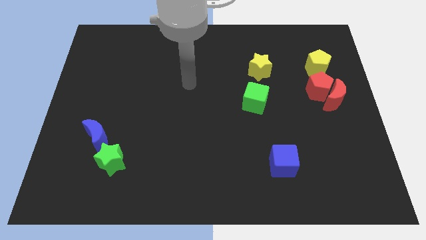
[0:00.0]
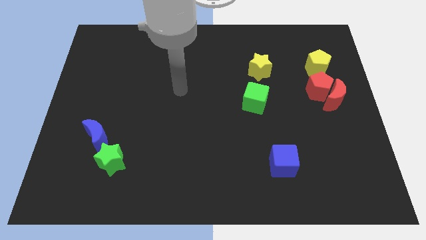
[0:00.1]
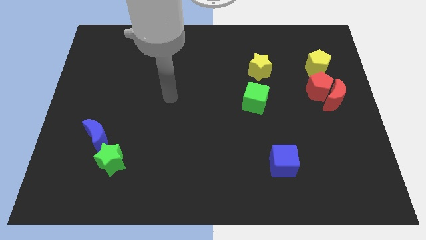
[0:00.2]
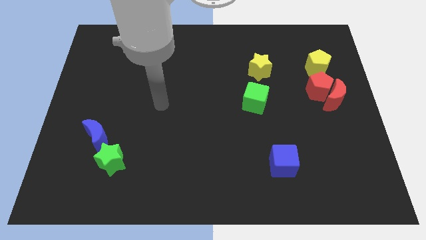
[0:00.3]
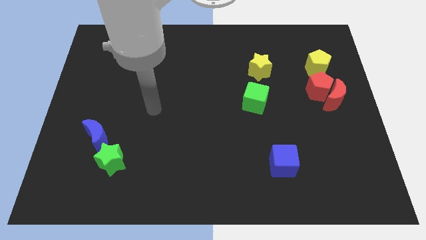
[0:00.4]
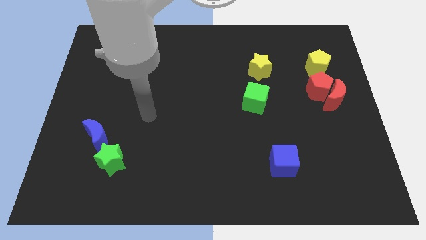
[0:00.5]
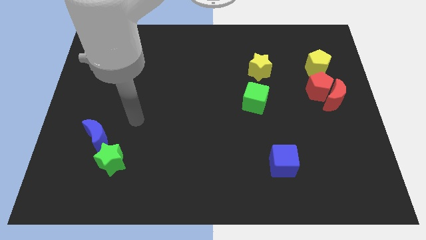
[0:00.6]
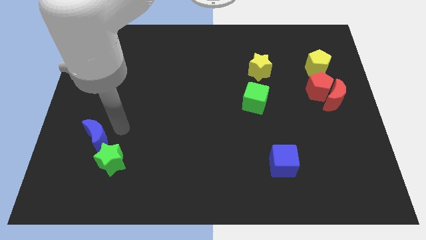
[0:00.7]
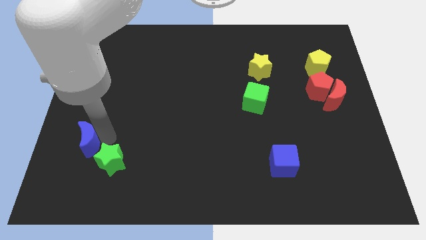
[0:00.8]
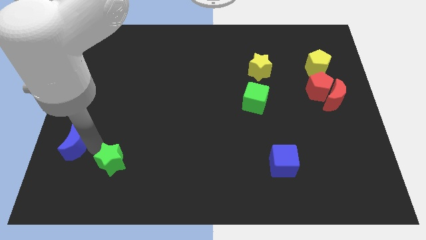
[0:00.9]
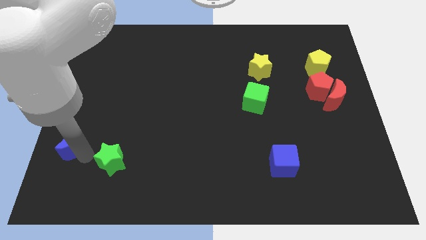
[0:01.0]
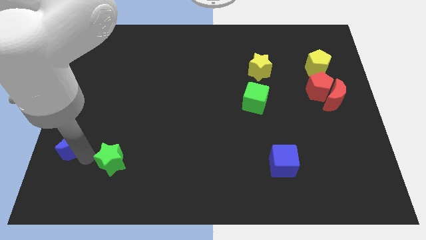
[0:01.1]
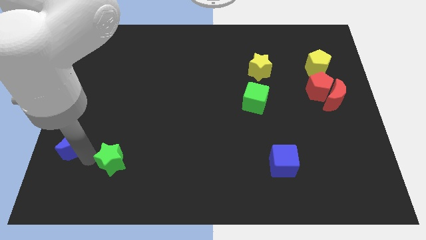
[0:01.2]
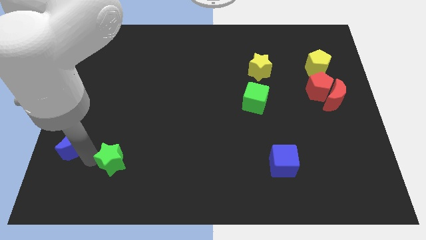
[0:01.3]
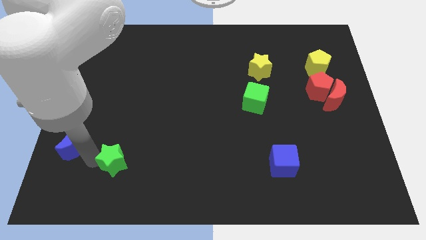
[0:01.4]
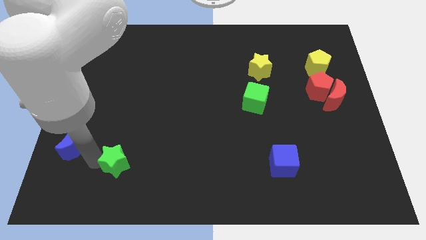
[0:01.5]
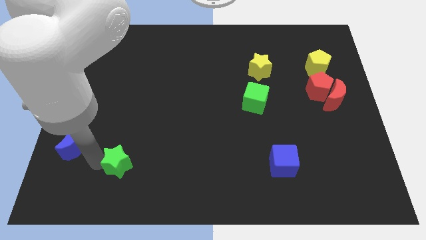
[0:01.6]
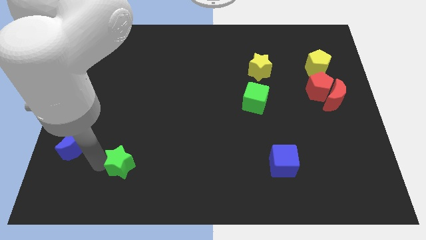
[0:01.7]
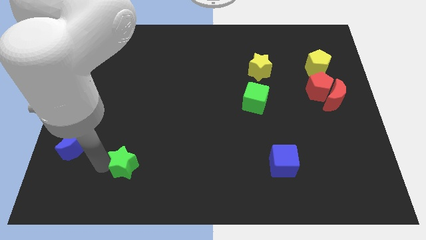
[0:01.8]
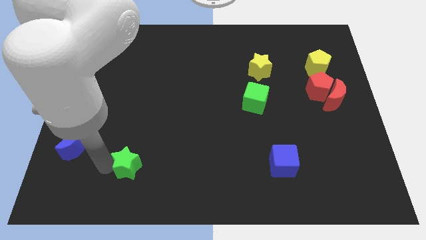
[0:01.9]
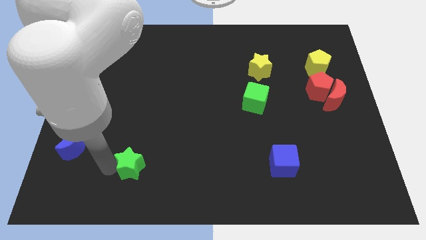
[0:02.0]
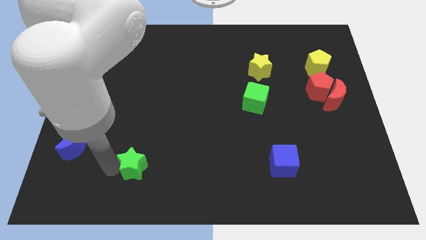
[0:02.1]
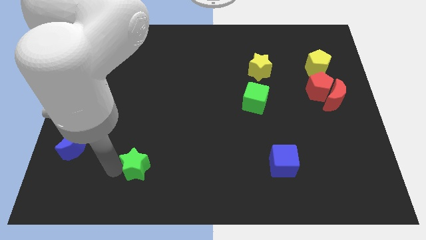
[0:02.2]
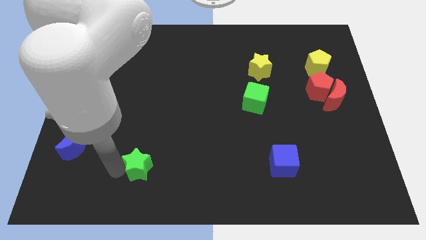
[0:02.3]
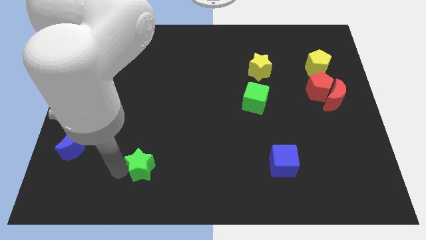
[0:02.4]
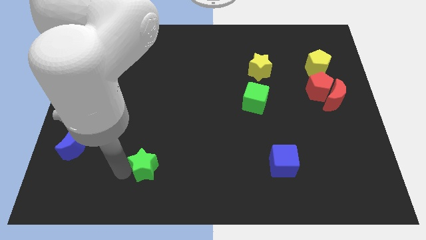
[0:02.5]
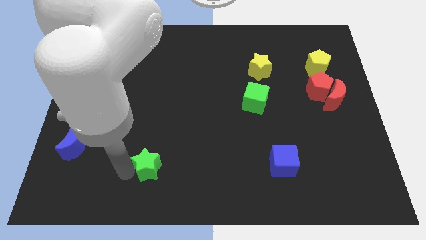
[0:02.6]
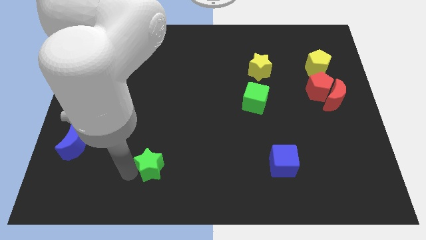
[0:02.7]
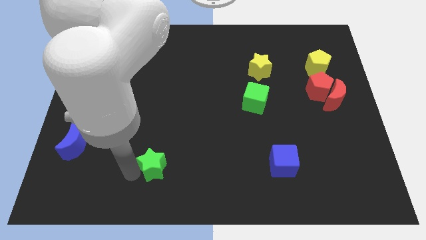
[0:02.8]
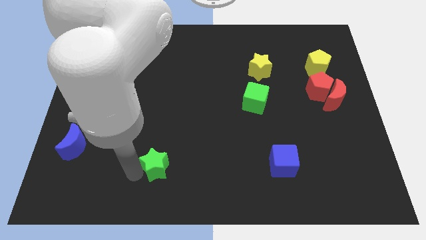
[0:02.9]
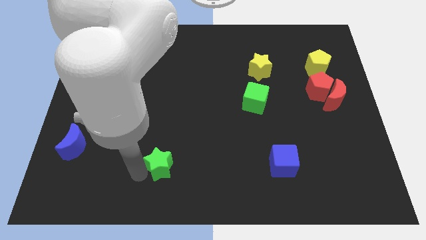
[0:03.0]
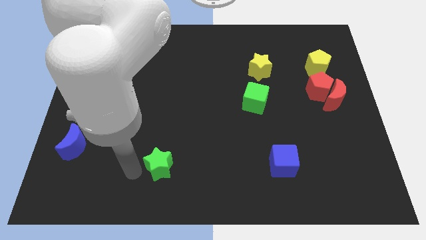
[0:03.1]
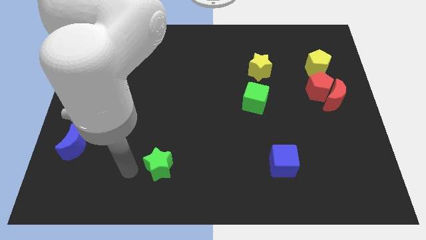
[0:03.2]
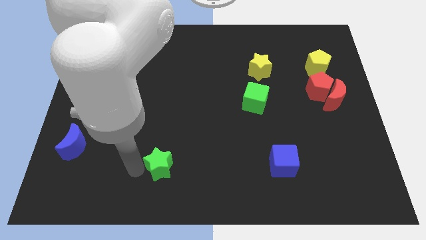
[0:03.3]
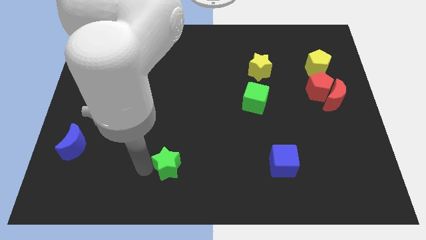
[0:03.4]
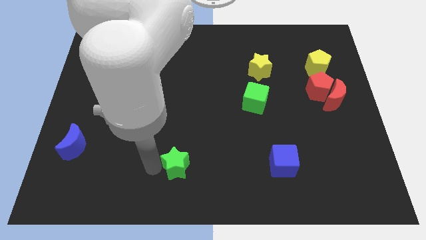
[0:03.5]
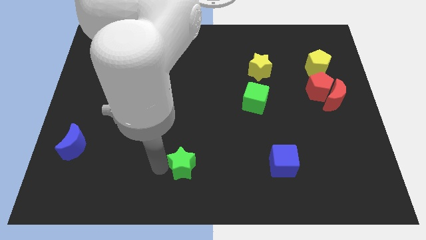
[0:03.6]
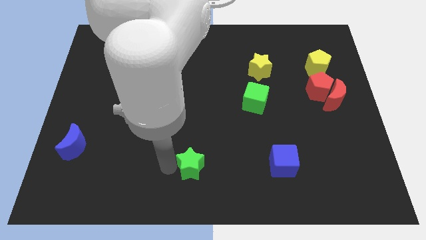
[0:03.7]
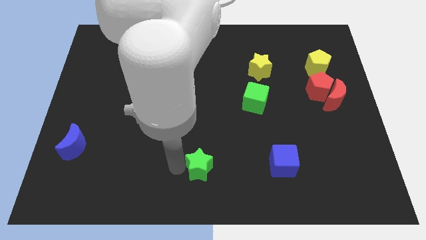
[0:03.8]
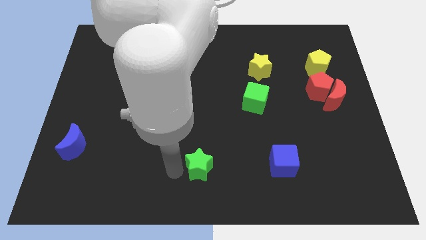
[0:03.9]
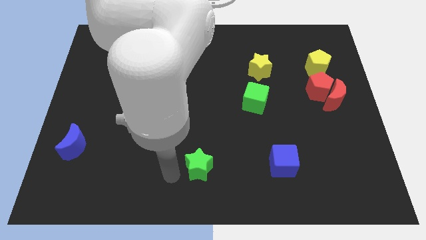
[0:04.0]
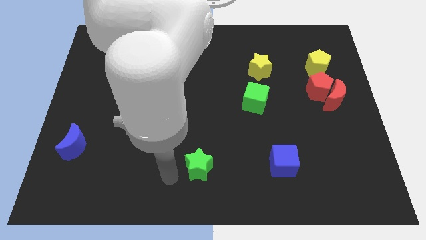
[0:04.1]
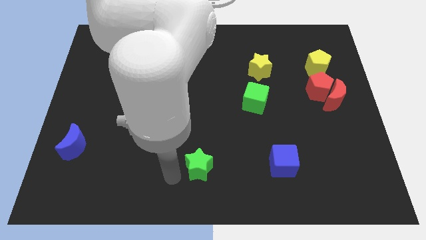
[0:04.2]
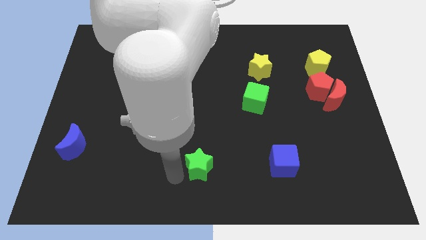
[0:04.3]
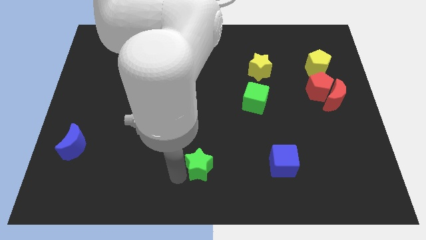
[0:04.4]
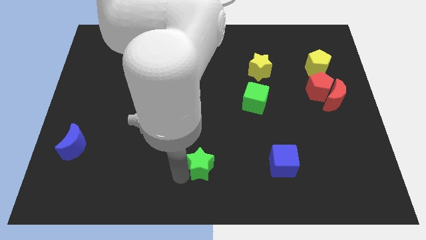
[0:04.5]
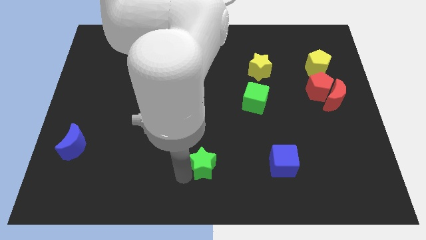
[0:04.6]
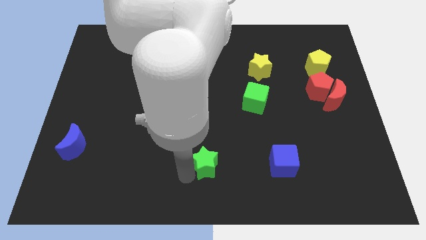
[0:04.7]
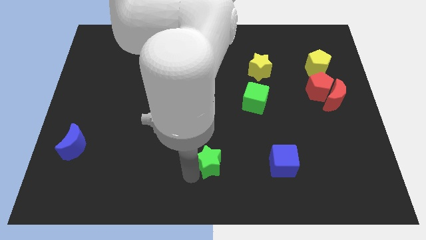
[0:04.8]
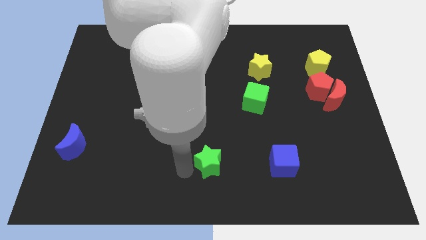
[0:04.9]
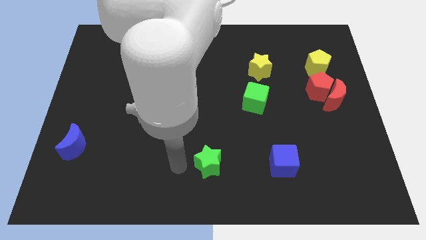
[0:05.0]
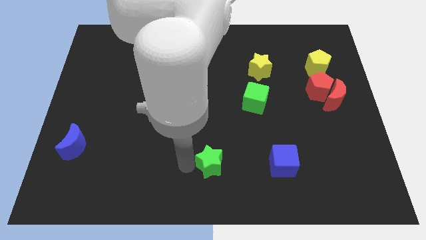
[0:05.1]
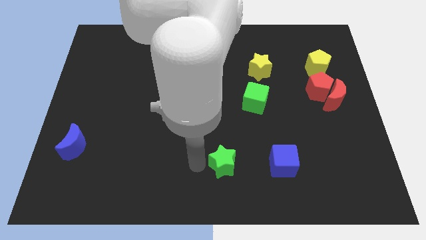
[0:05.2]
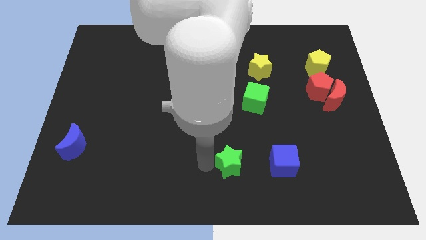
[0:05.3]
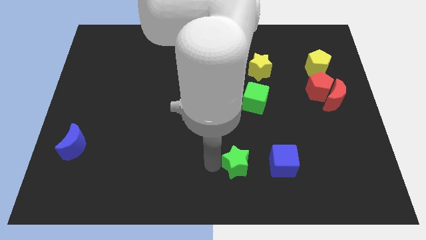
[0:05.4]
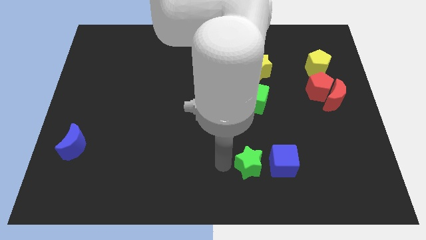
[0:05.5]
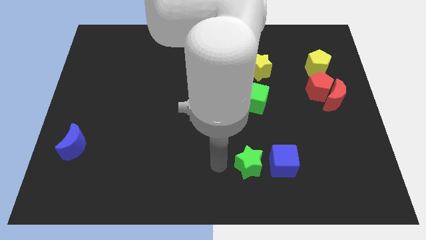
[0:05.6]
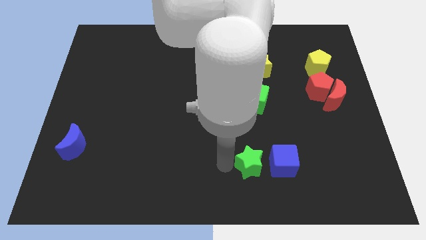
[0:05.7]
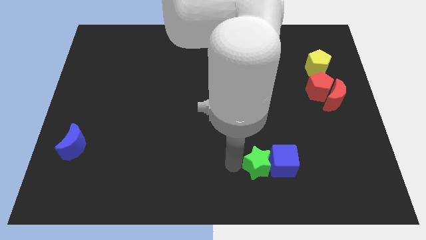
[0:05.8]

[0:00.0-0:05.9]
move the green star to the blue cube

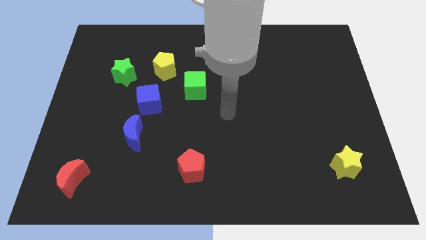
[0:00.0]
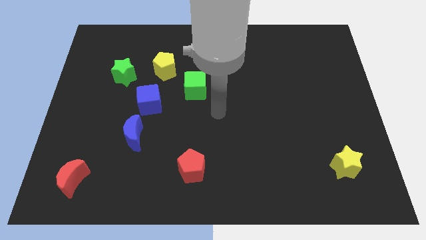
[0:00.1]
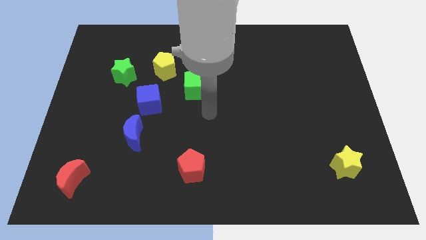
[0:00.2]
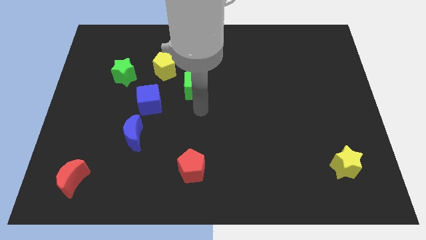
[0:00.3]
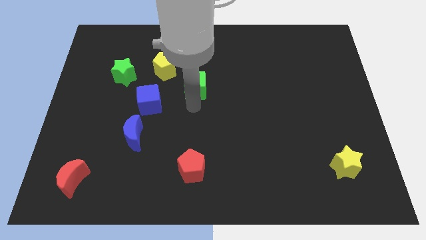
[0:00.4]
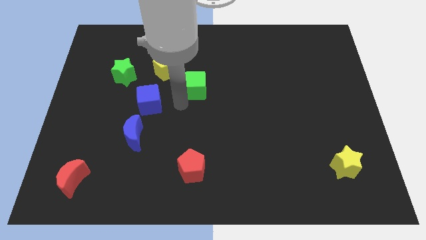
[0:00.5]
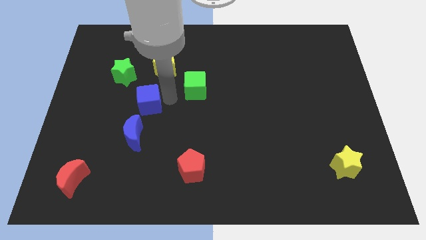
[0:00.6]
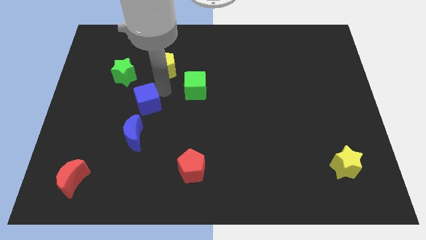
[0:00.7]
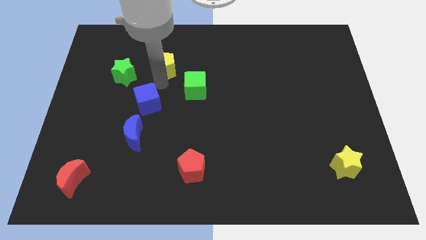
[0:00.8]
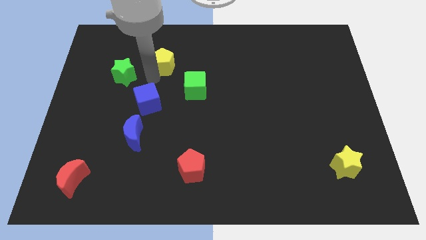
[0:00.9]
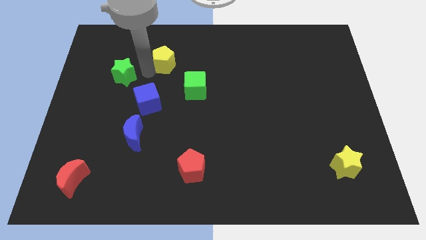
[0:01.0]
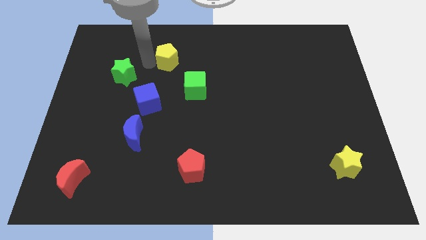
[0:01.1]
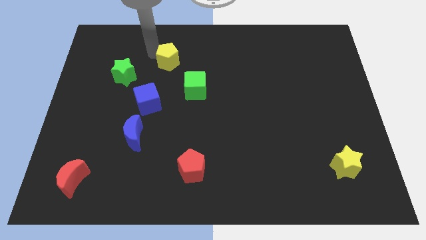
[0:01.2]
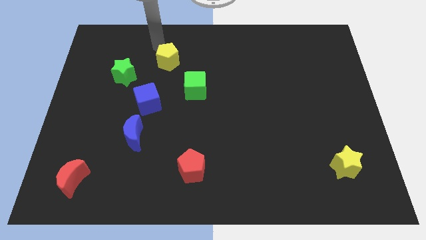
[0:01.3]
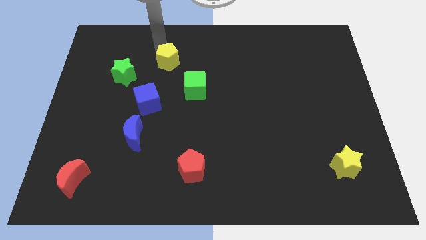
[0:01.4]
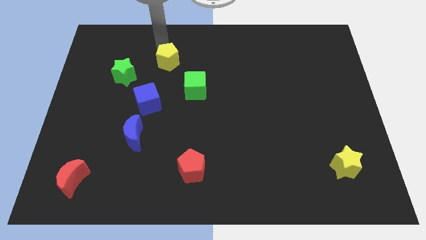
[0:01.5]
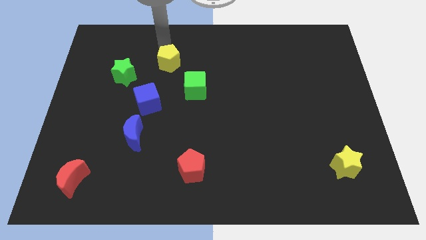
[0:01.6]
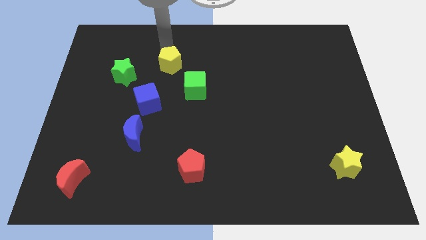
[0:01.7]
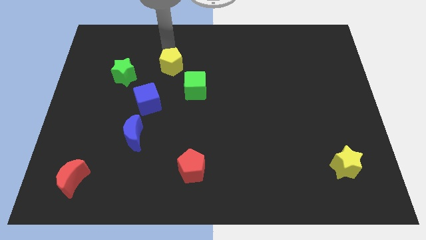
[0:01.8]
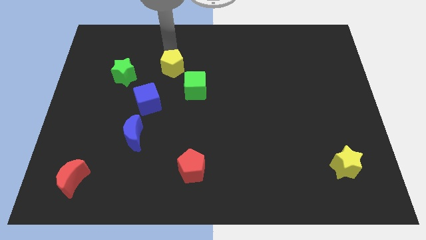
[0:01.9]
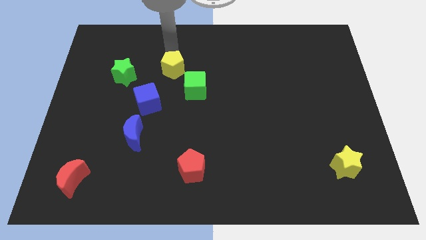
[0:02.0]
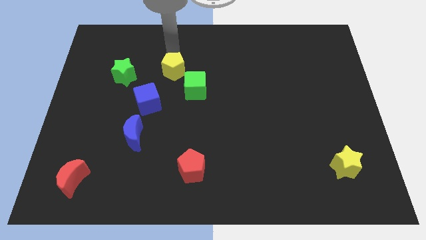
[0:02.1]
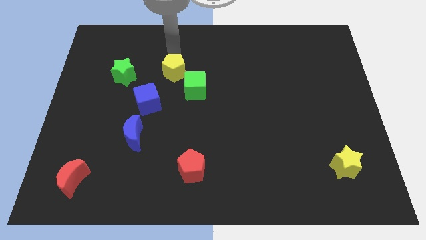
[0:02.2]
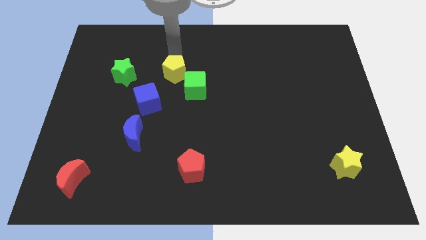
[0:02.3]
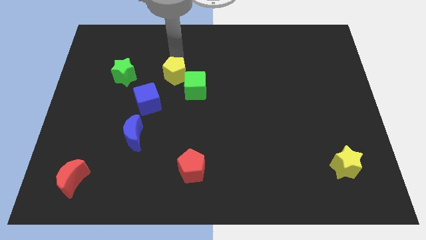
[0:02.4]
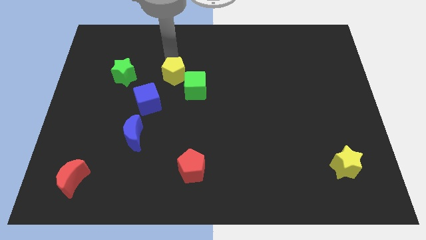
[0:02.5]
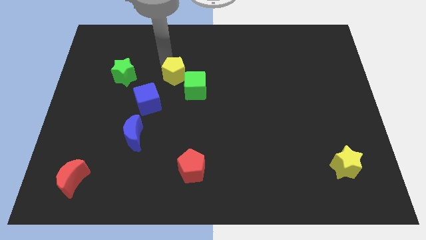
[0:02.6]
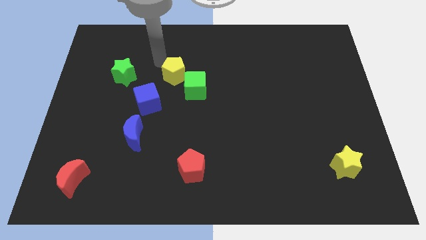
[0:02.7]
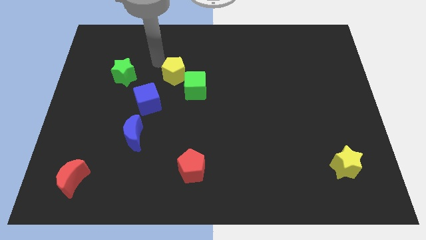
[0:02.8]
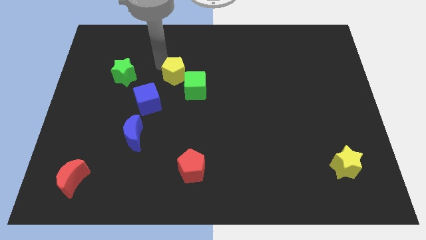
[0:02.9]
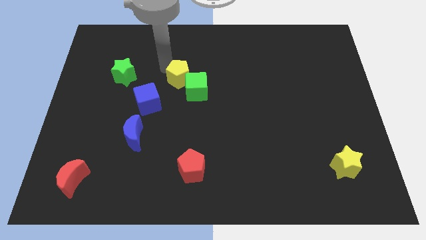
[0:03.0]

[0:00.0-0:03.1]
move the yellow pentagon towards the green cube
